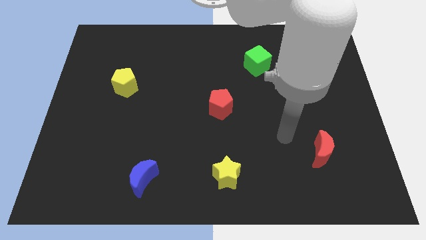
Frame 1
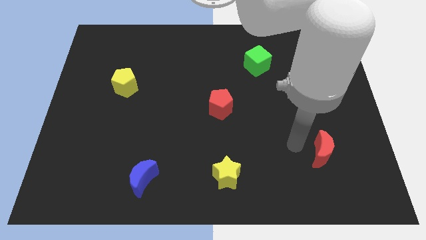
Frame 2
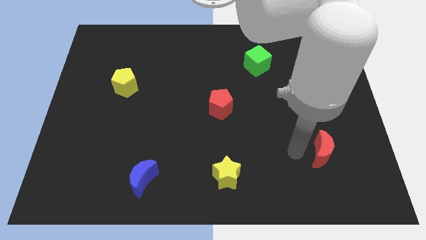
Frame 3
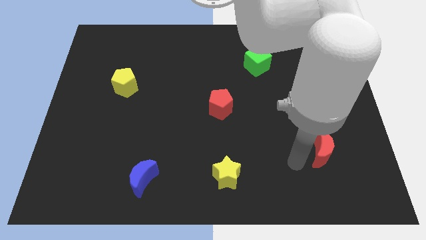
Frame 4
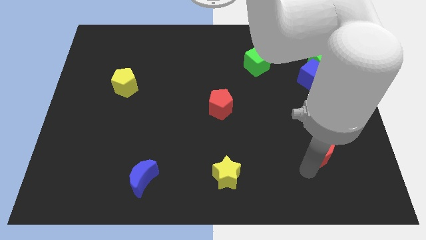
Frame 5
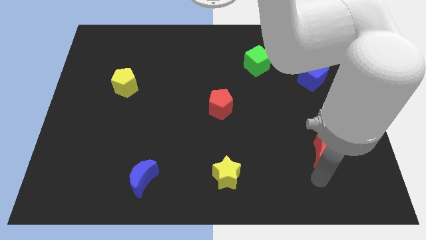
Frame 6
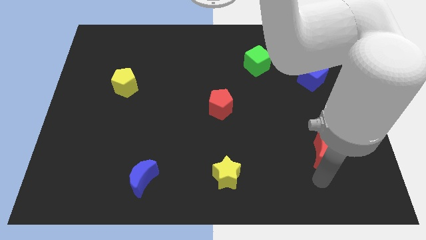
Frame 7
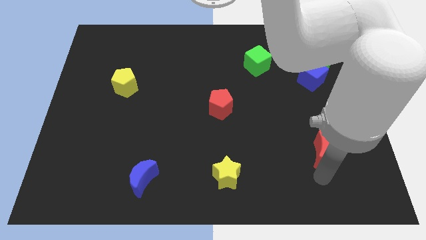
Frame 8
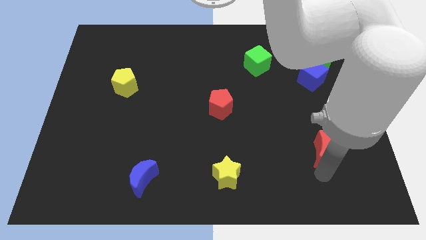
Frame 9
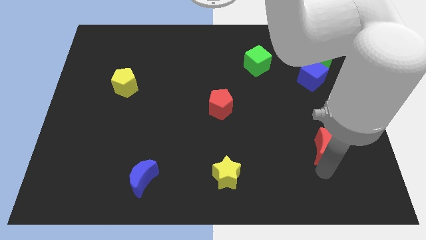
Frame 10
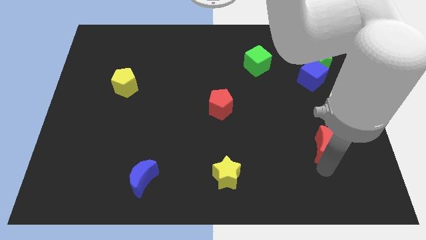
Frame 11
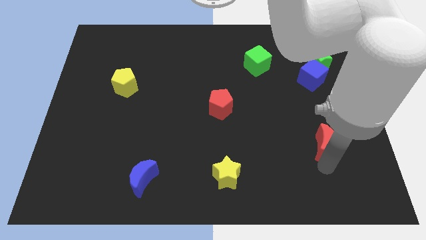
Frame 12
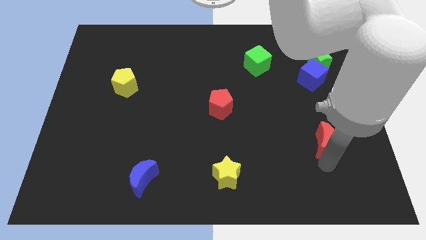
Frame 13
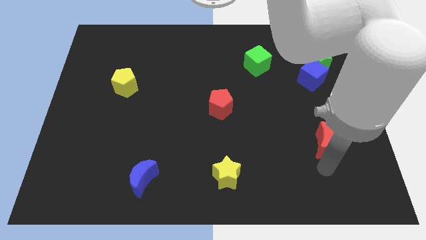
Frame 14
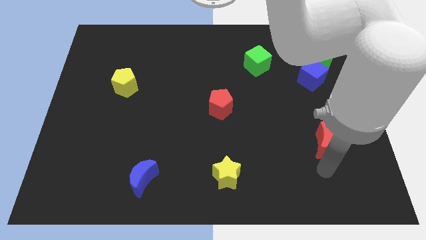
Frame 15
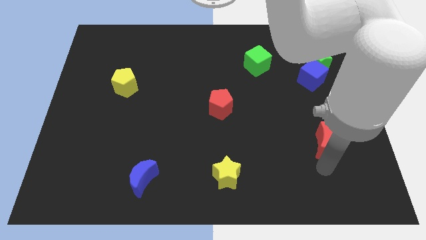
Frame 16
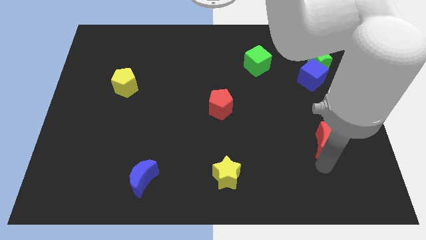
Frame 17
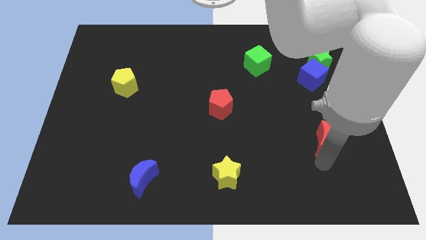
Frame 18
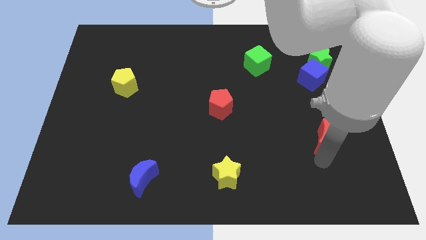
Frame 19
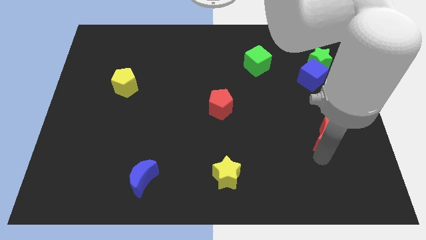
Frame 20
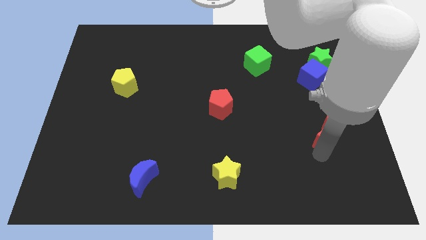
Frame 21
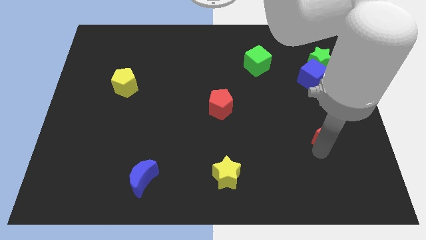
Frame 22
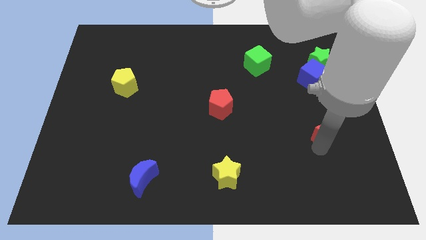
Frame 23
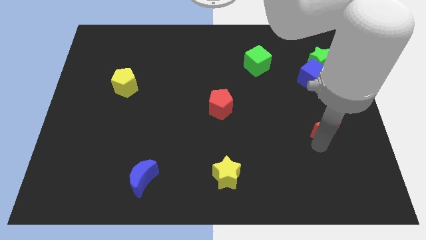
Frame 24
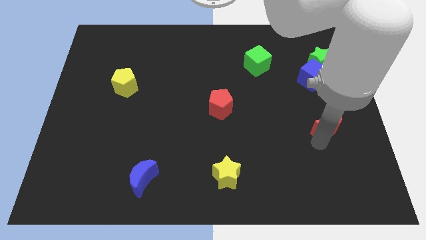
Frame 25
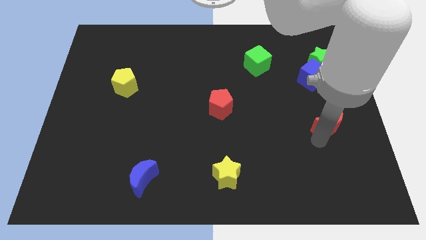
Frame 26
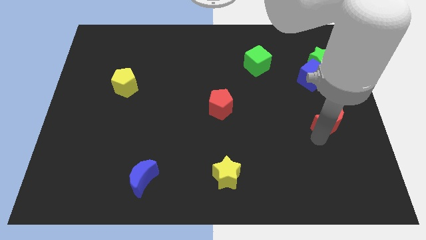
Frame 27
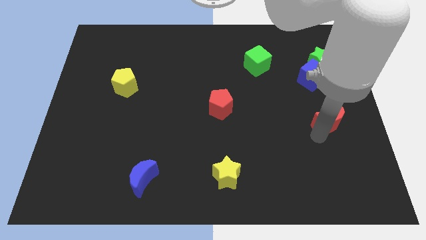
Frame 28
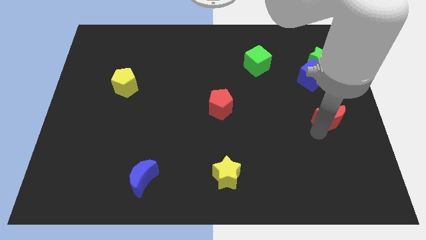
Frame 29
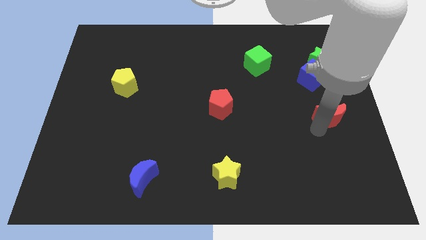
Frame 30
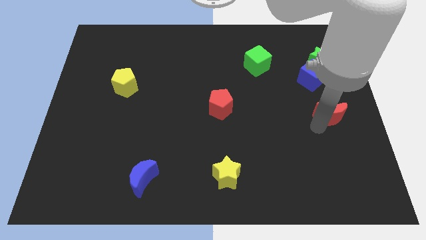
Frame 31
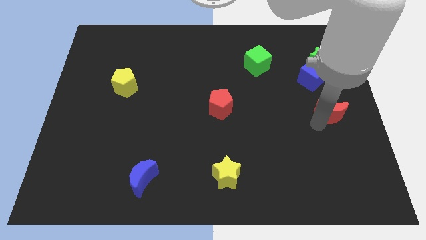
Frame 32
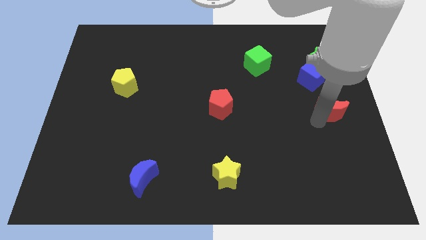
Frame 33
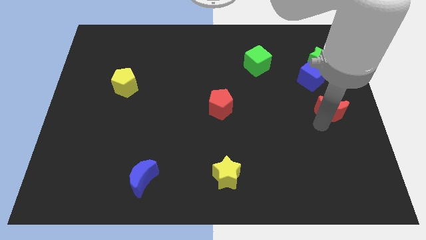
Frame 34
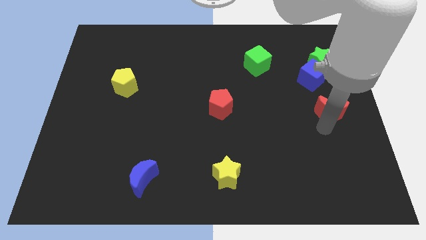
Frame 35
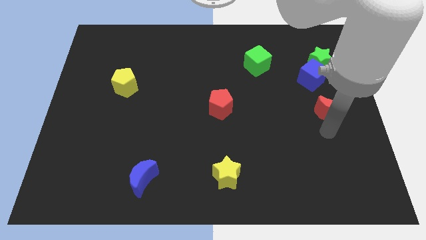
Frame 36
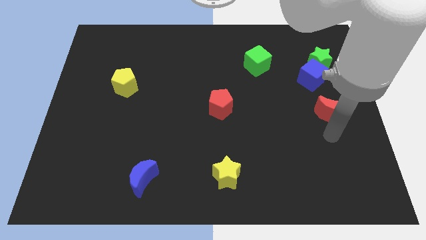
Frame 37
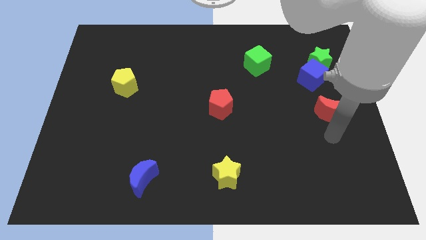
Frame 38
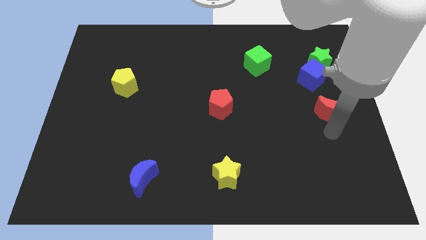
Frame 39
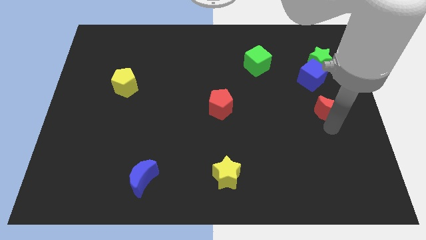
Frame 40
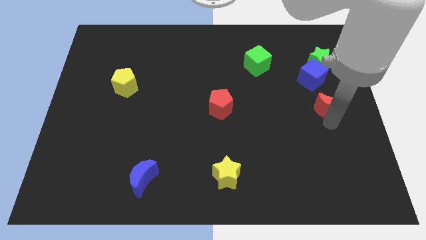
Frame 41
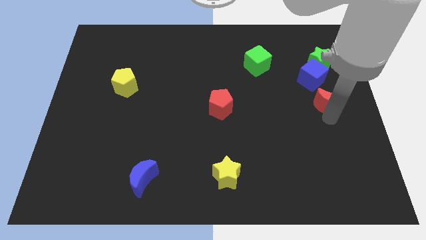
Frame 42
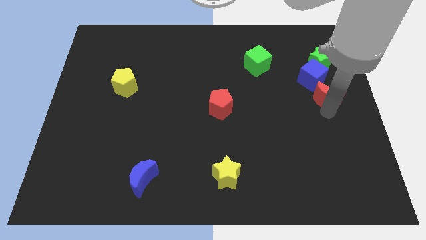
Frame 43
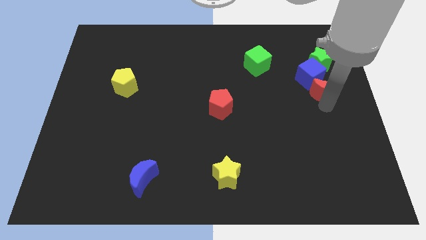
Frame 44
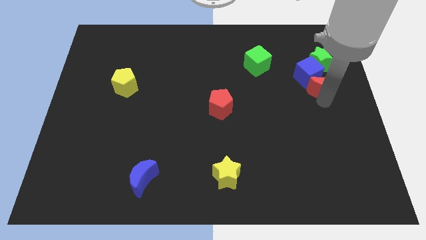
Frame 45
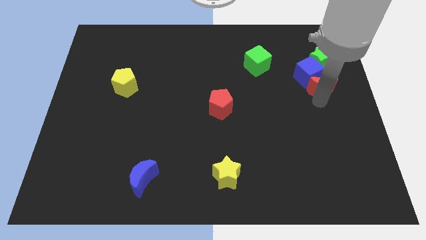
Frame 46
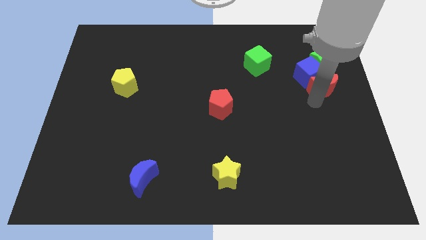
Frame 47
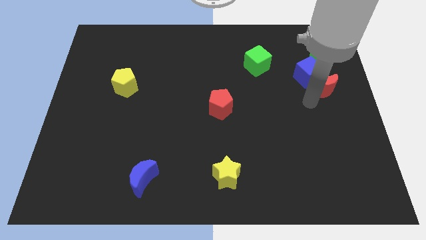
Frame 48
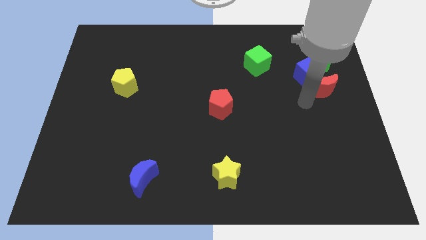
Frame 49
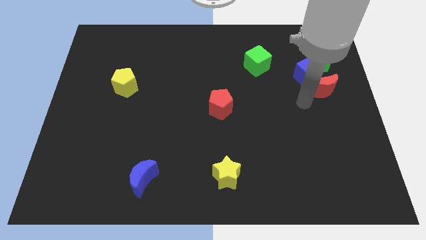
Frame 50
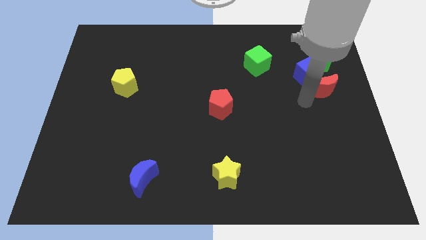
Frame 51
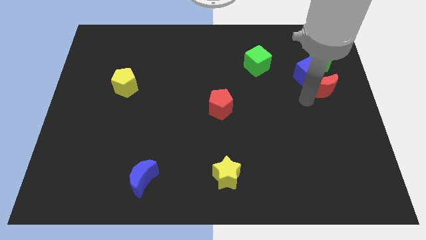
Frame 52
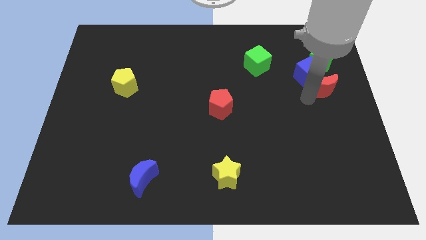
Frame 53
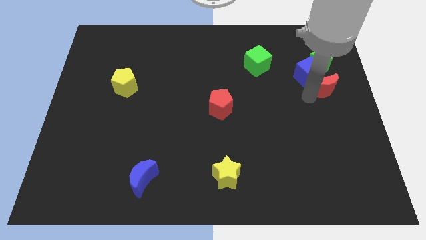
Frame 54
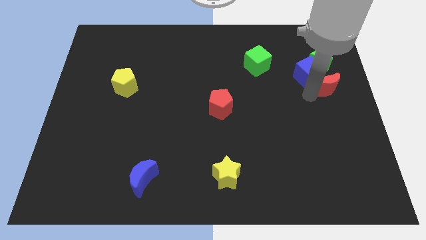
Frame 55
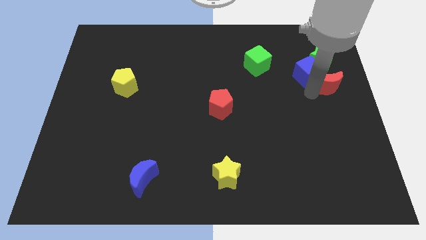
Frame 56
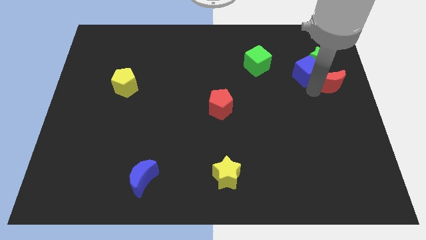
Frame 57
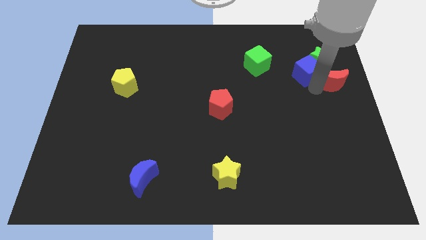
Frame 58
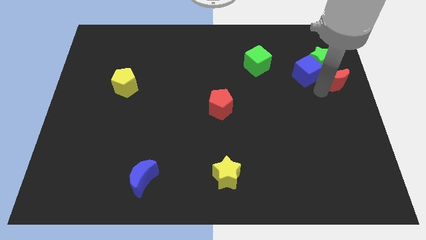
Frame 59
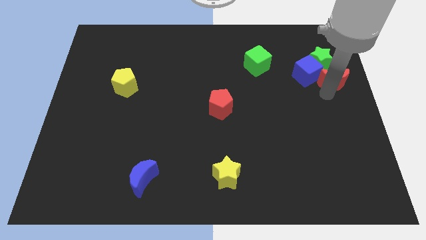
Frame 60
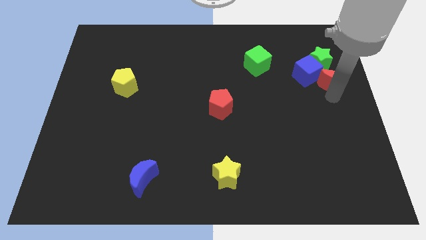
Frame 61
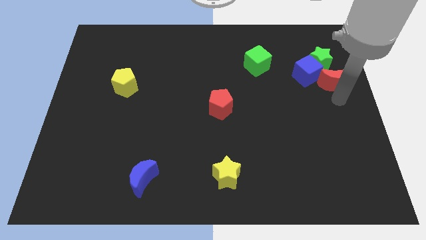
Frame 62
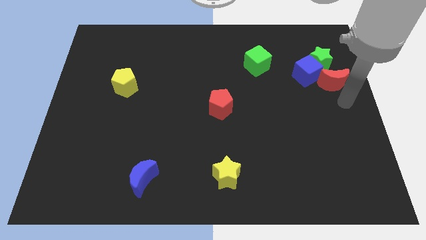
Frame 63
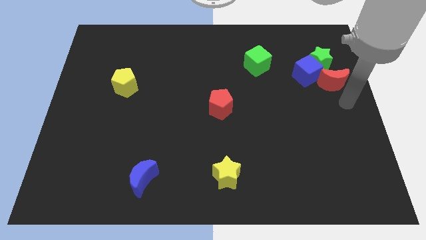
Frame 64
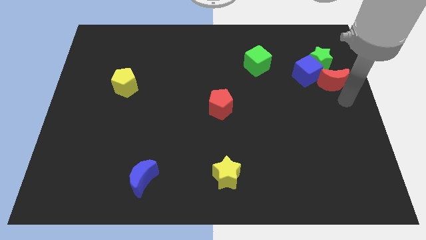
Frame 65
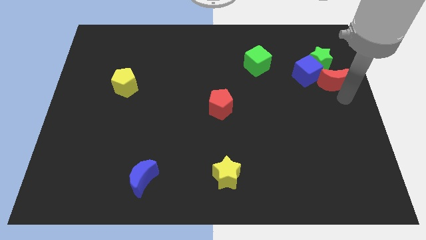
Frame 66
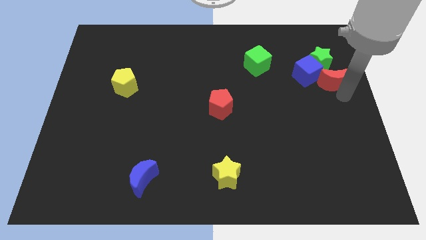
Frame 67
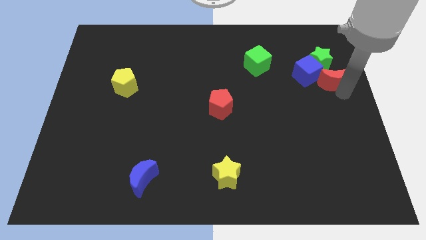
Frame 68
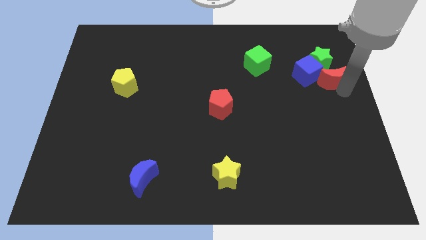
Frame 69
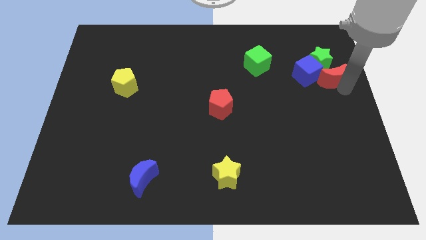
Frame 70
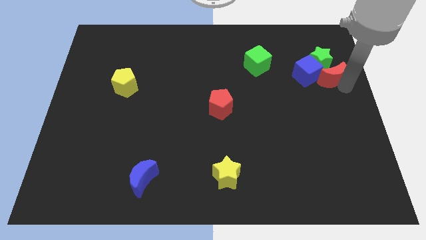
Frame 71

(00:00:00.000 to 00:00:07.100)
push the red moon to the green star

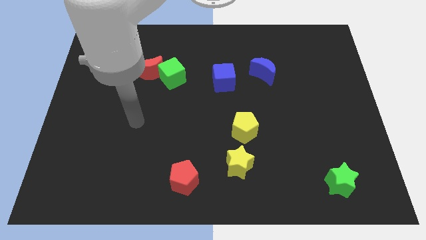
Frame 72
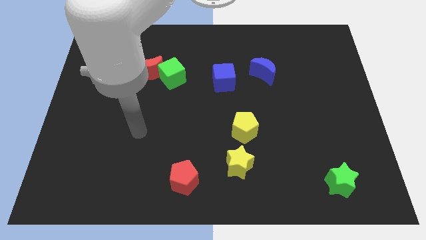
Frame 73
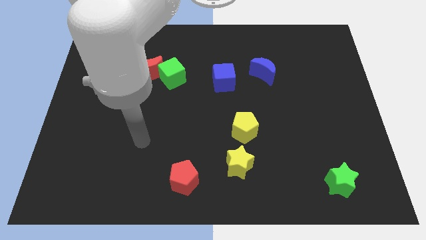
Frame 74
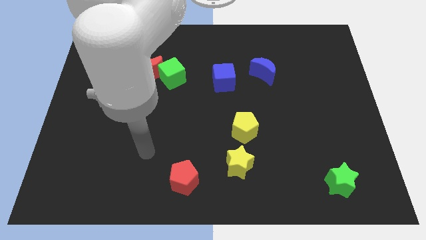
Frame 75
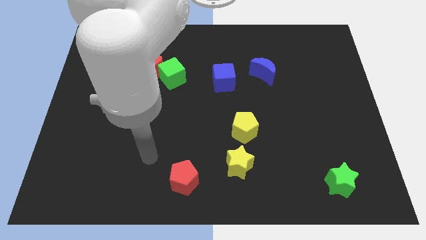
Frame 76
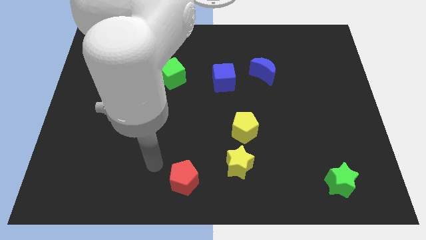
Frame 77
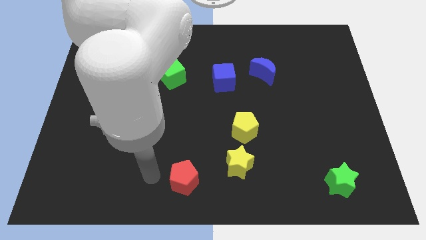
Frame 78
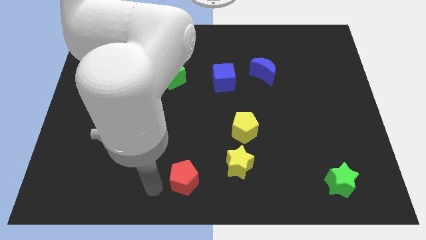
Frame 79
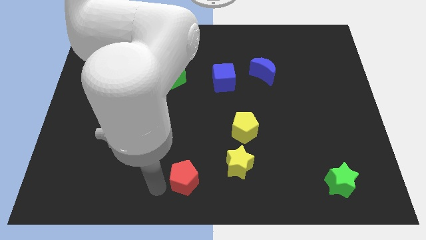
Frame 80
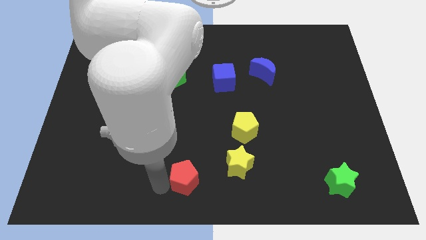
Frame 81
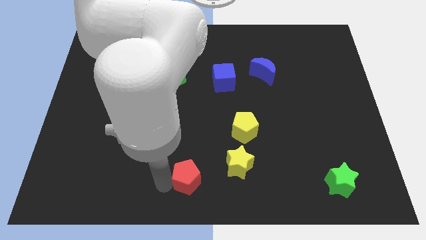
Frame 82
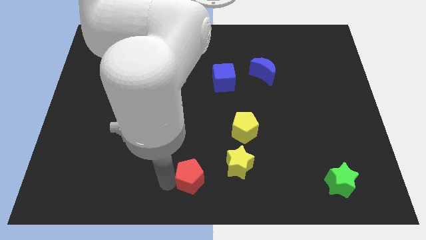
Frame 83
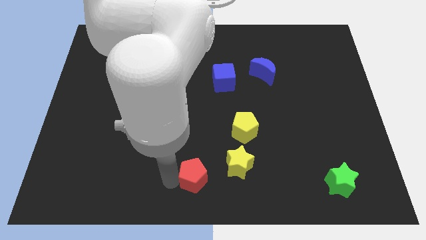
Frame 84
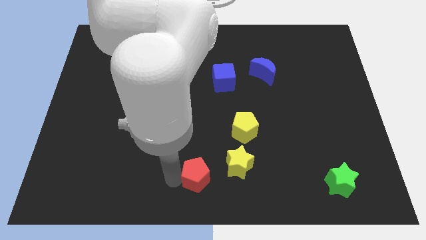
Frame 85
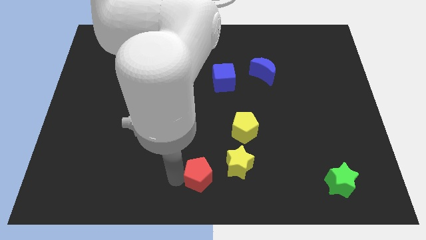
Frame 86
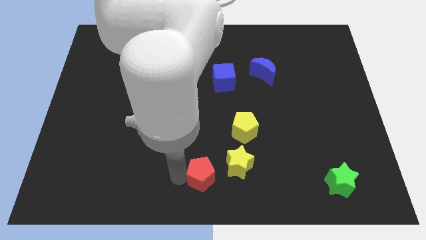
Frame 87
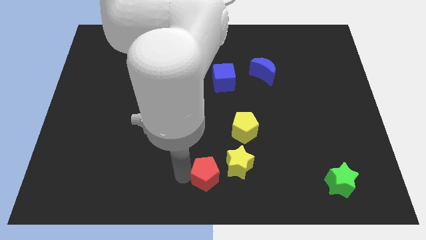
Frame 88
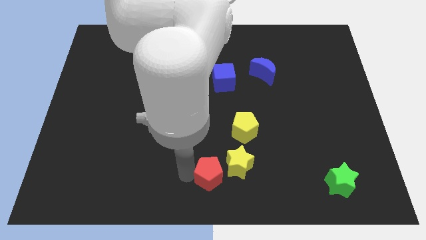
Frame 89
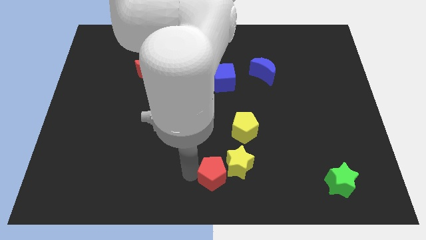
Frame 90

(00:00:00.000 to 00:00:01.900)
slide the red pentagon close to the yellow star
